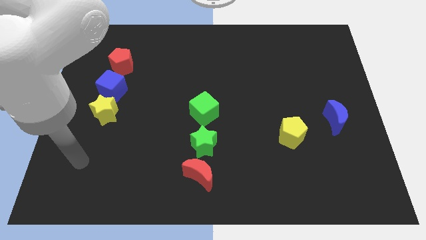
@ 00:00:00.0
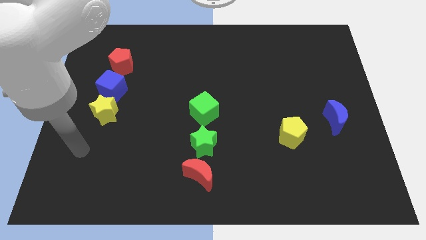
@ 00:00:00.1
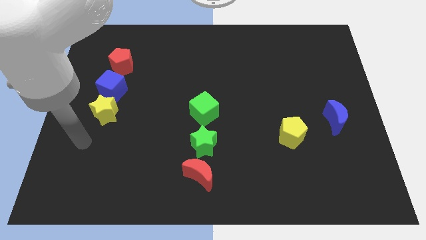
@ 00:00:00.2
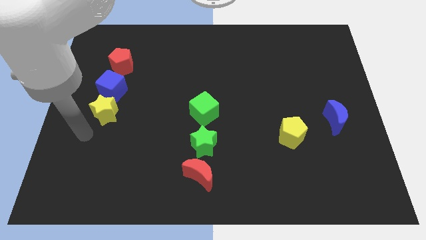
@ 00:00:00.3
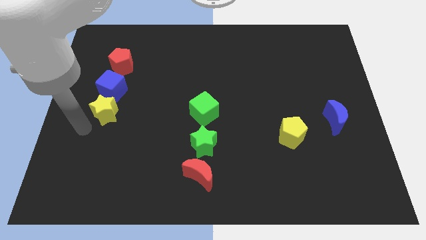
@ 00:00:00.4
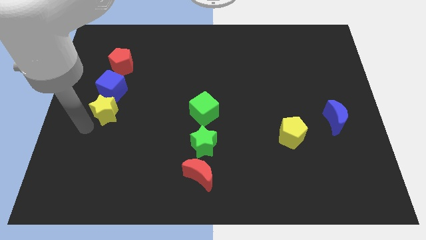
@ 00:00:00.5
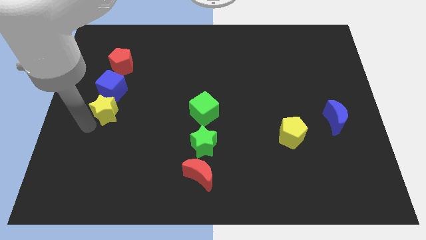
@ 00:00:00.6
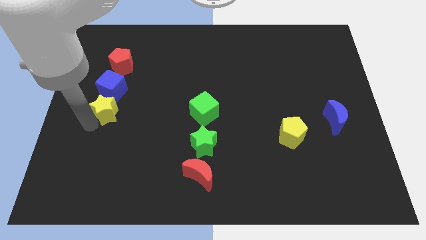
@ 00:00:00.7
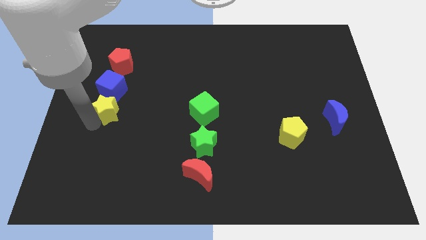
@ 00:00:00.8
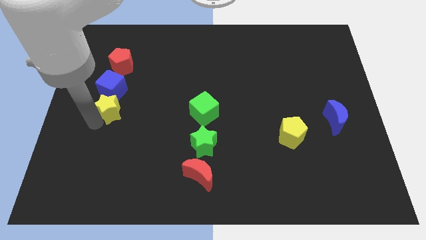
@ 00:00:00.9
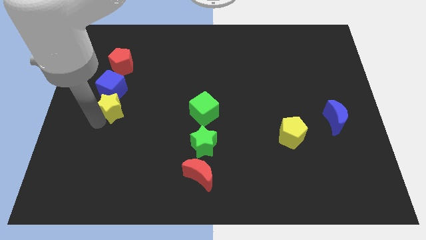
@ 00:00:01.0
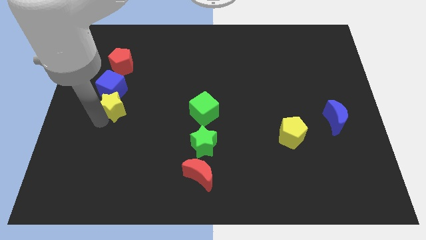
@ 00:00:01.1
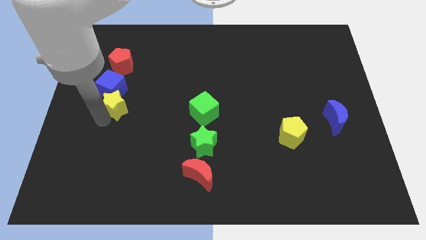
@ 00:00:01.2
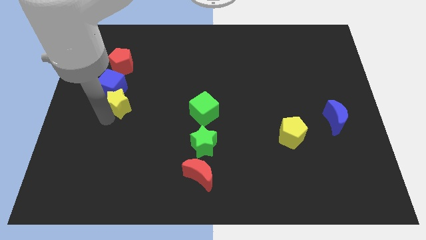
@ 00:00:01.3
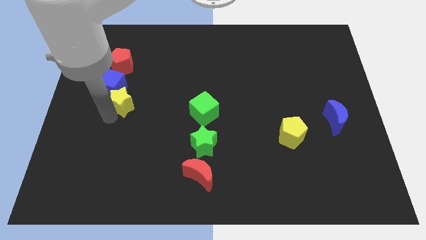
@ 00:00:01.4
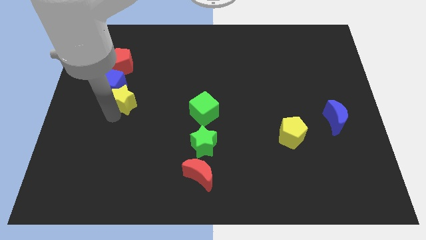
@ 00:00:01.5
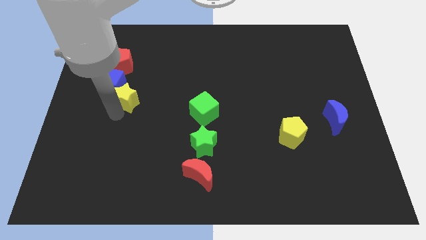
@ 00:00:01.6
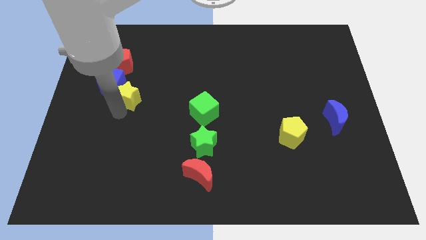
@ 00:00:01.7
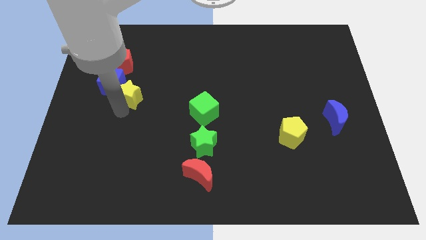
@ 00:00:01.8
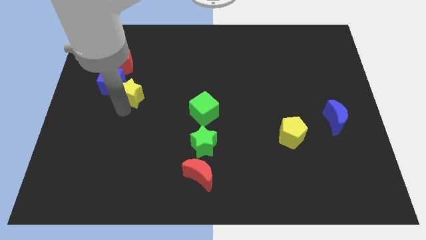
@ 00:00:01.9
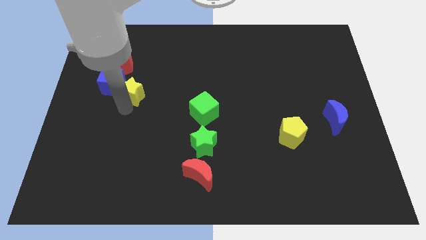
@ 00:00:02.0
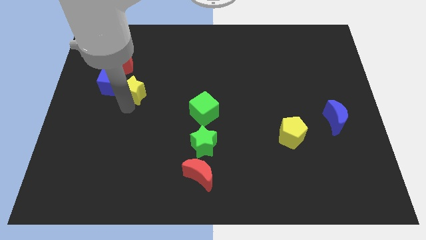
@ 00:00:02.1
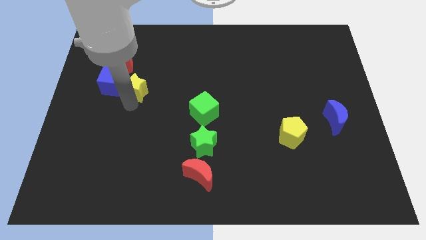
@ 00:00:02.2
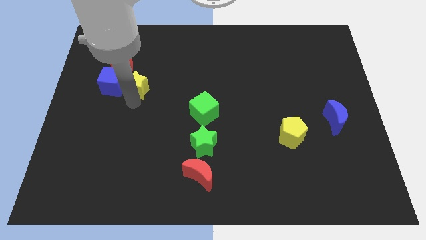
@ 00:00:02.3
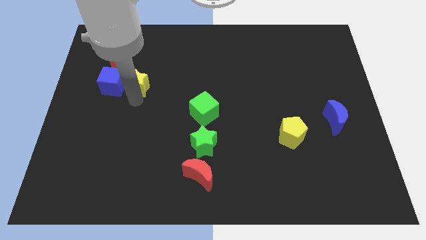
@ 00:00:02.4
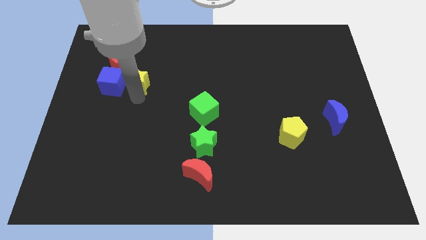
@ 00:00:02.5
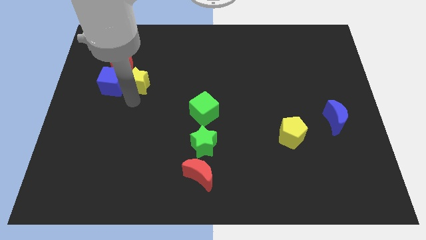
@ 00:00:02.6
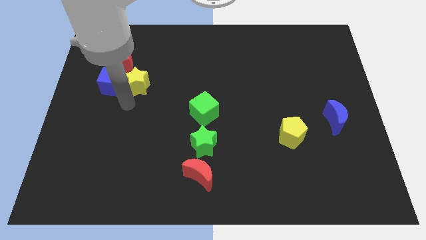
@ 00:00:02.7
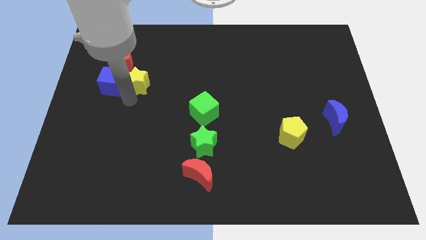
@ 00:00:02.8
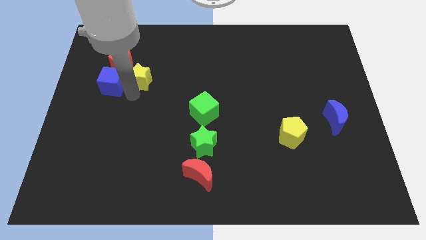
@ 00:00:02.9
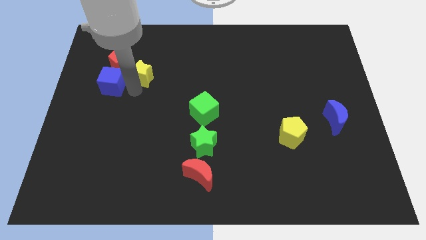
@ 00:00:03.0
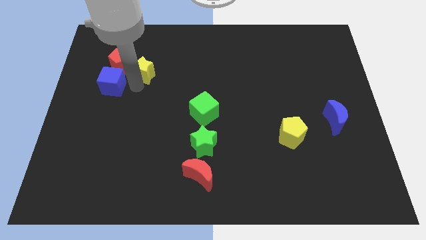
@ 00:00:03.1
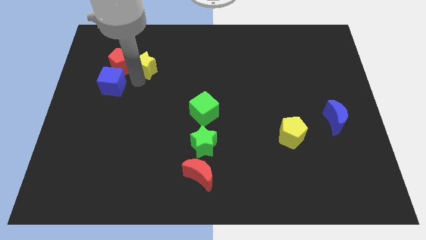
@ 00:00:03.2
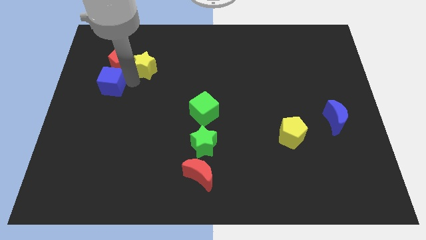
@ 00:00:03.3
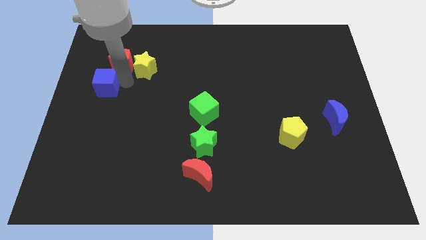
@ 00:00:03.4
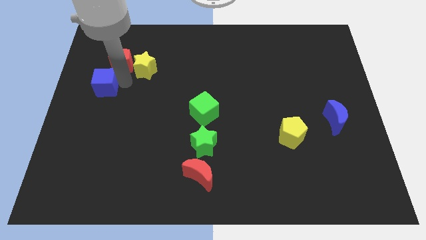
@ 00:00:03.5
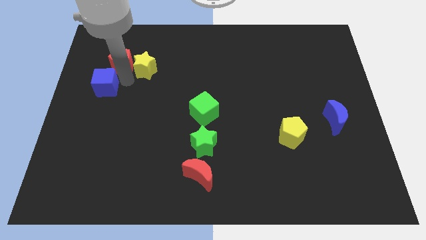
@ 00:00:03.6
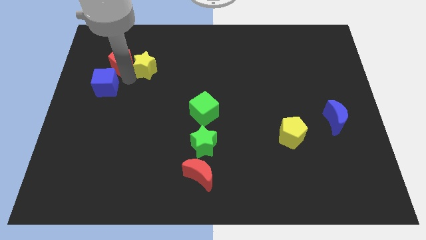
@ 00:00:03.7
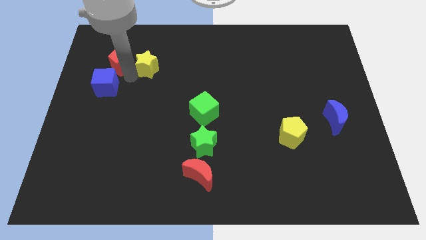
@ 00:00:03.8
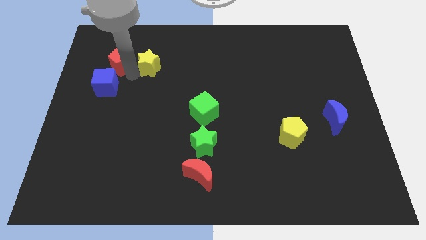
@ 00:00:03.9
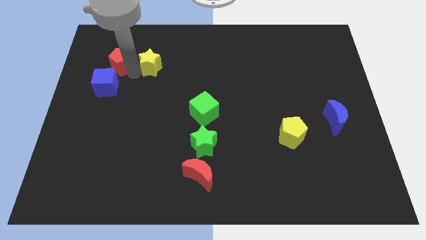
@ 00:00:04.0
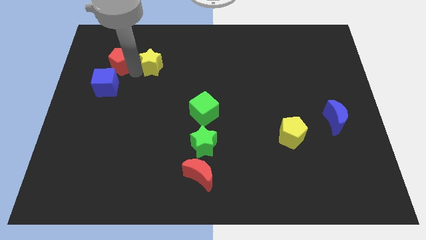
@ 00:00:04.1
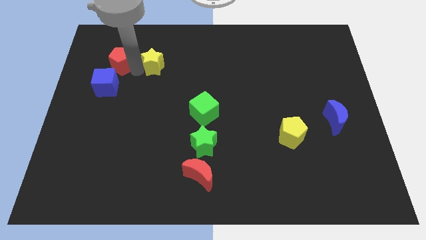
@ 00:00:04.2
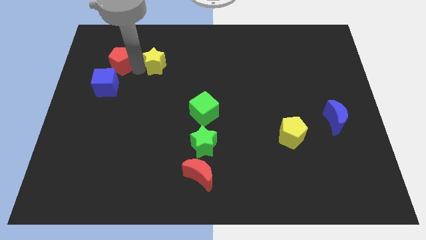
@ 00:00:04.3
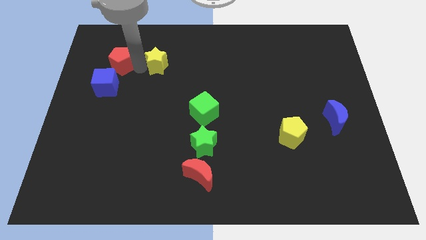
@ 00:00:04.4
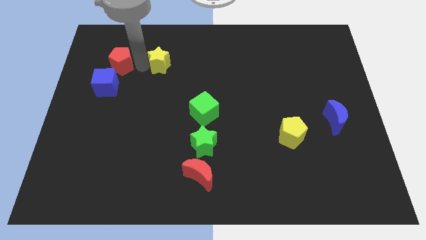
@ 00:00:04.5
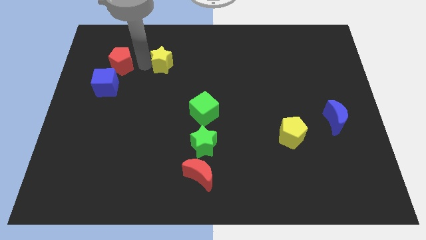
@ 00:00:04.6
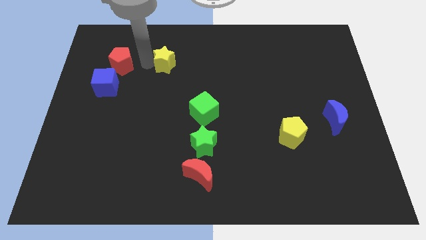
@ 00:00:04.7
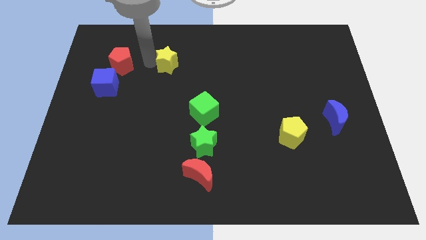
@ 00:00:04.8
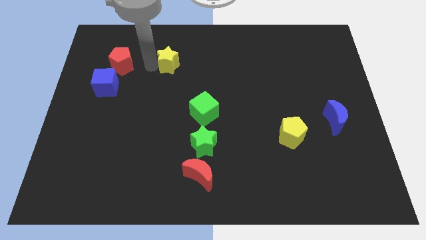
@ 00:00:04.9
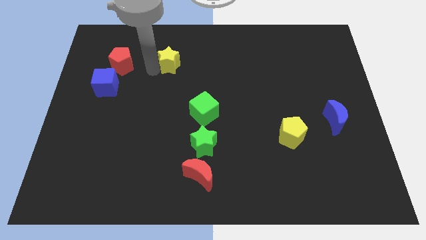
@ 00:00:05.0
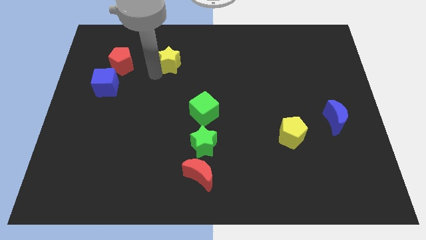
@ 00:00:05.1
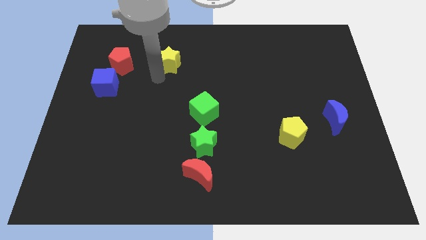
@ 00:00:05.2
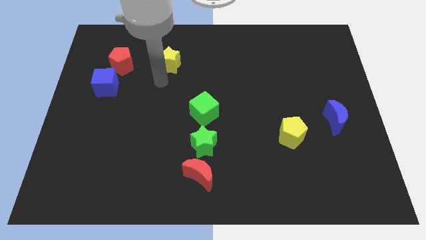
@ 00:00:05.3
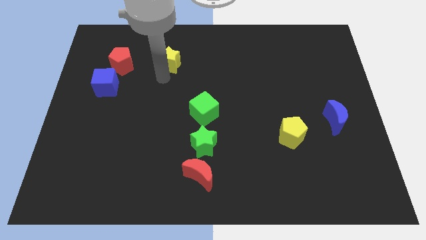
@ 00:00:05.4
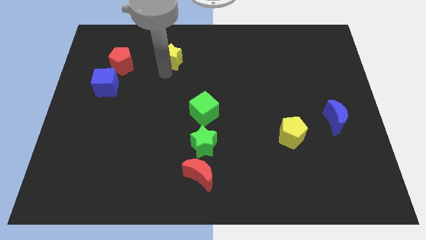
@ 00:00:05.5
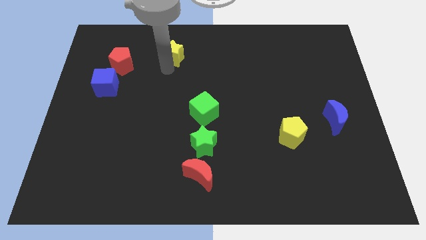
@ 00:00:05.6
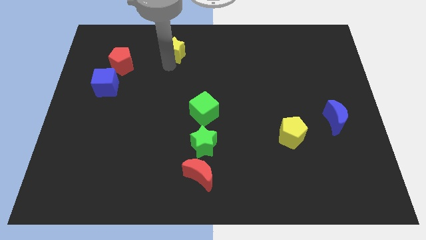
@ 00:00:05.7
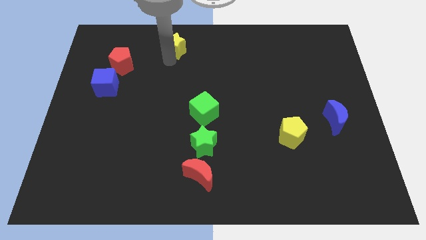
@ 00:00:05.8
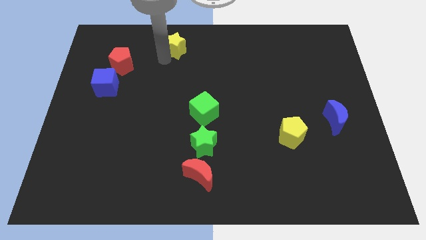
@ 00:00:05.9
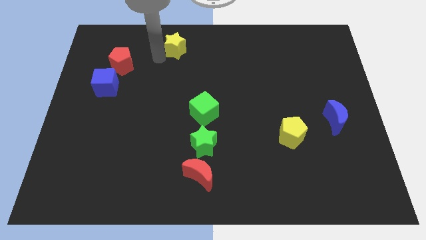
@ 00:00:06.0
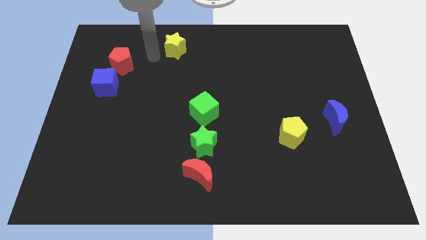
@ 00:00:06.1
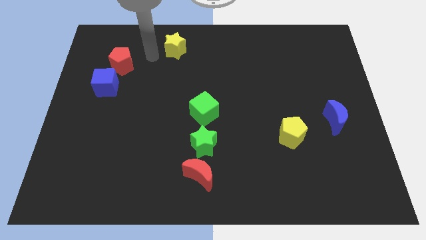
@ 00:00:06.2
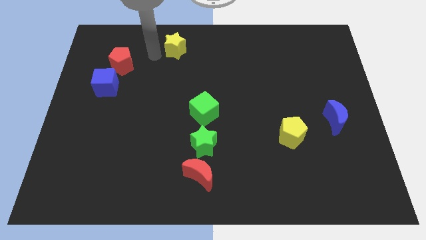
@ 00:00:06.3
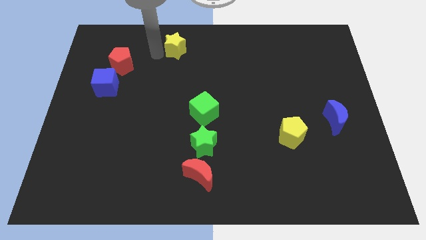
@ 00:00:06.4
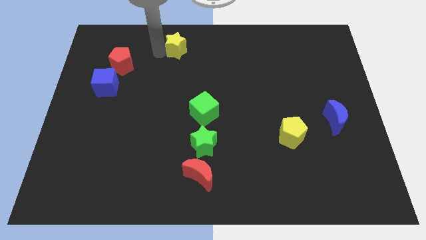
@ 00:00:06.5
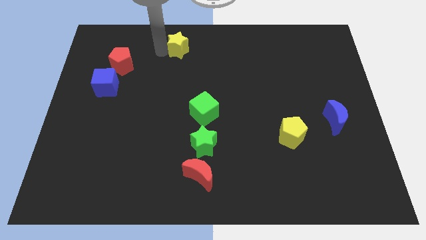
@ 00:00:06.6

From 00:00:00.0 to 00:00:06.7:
move the yellow star to the towards your base
